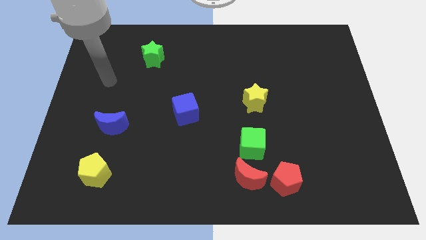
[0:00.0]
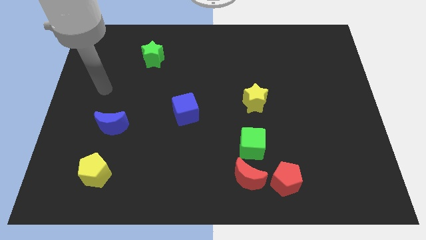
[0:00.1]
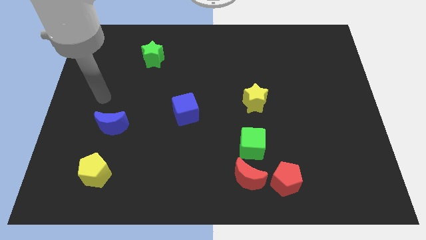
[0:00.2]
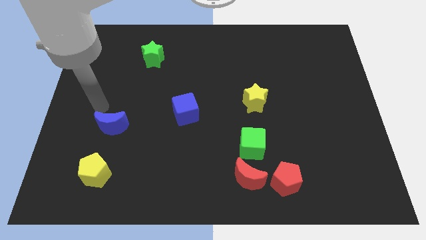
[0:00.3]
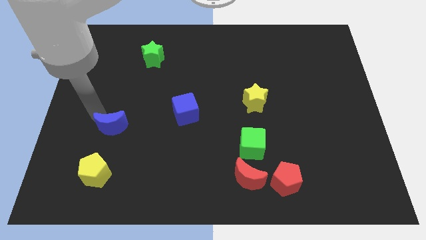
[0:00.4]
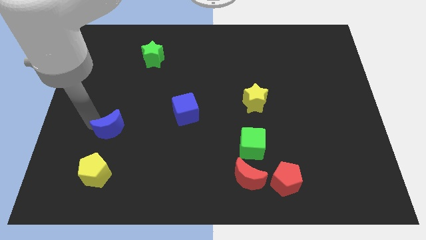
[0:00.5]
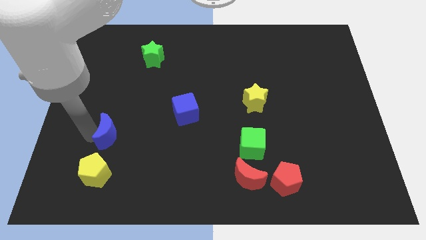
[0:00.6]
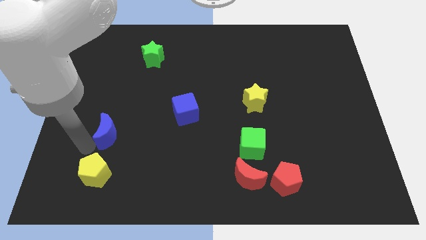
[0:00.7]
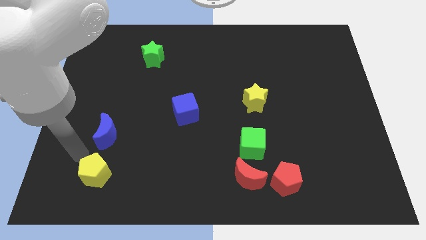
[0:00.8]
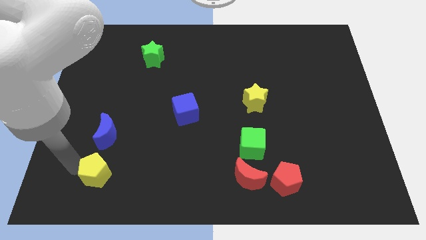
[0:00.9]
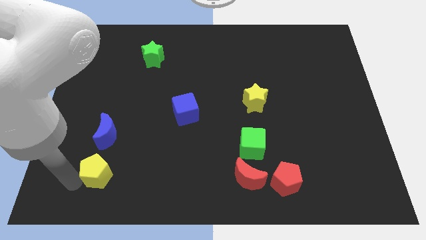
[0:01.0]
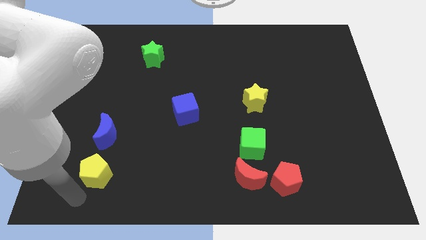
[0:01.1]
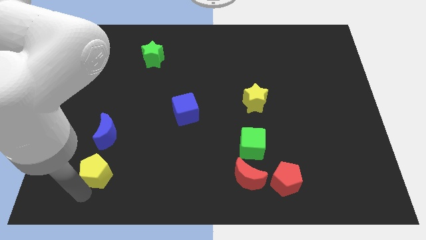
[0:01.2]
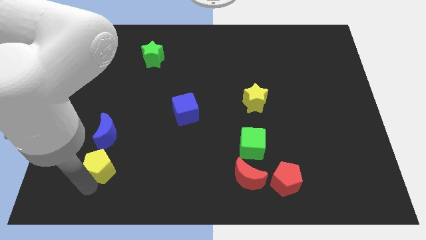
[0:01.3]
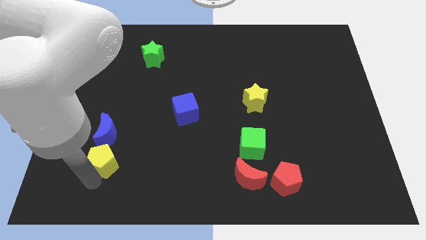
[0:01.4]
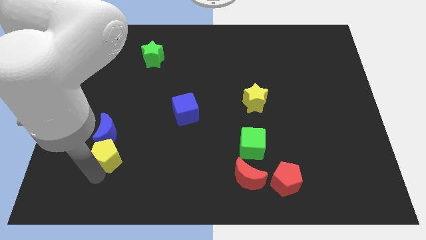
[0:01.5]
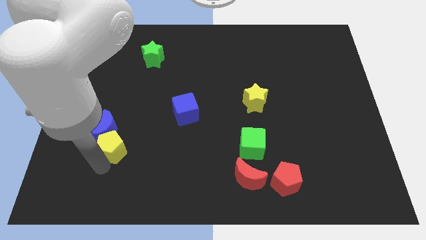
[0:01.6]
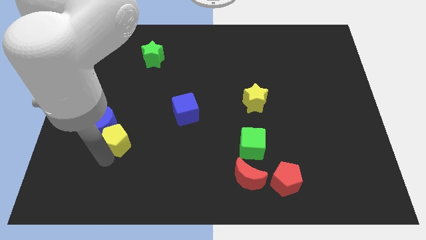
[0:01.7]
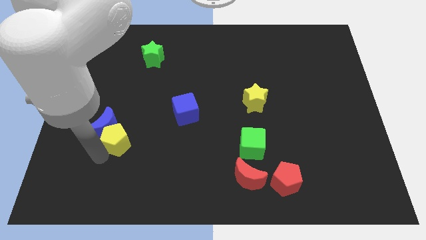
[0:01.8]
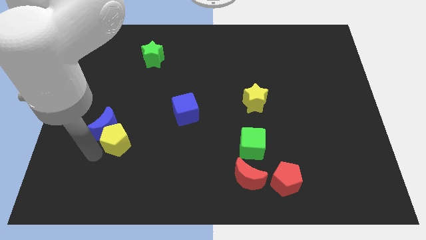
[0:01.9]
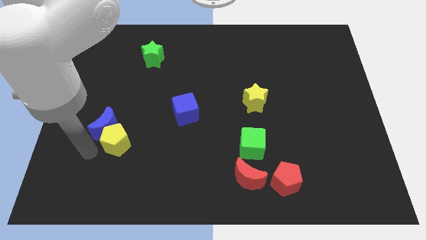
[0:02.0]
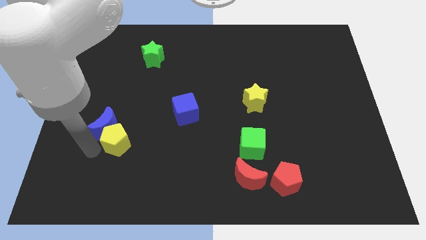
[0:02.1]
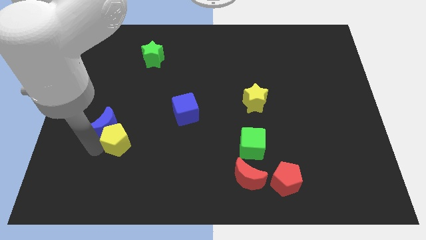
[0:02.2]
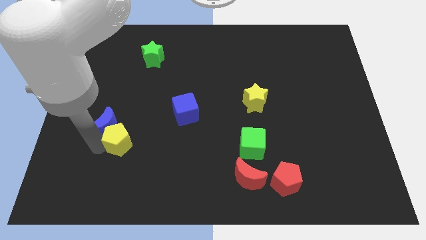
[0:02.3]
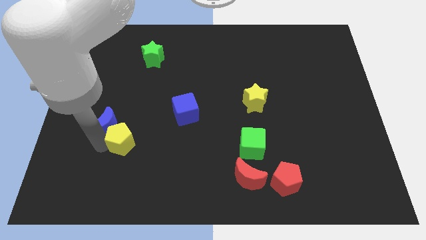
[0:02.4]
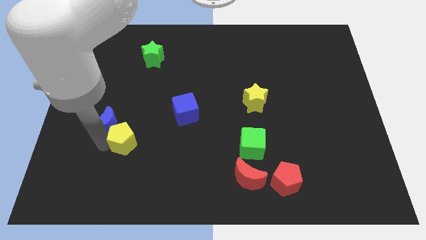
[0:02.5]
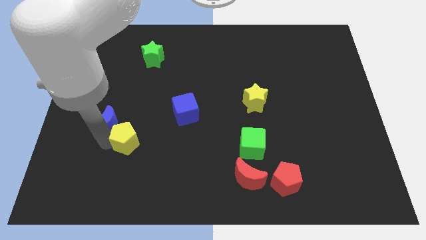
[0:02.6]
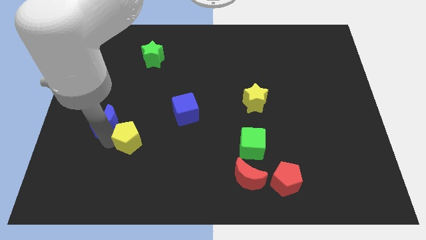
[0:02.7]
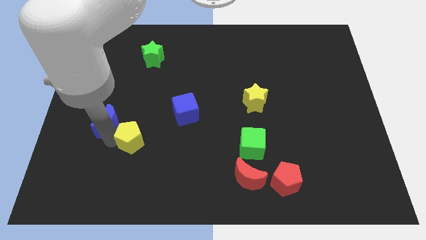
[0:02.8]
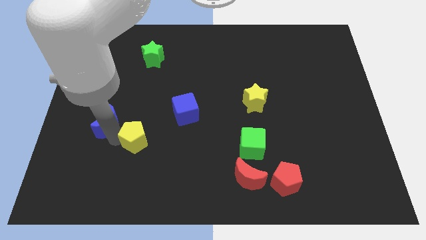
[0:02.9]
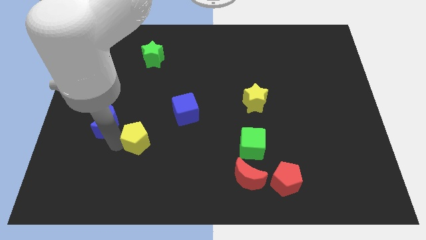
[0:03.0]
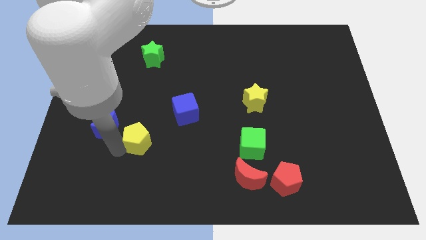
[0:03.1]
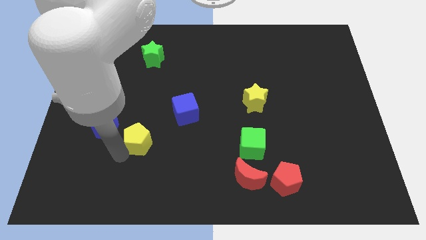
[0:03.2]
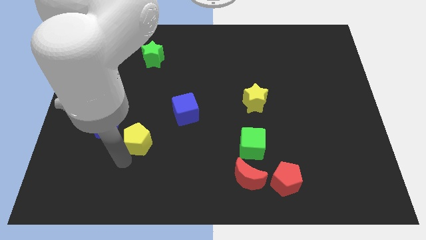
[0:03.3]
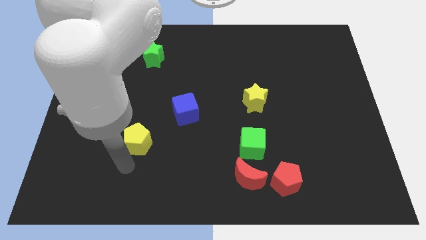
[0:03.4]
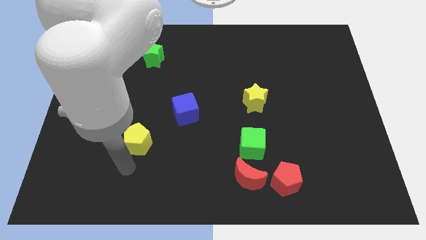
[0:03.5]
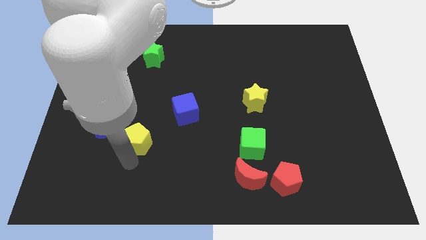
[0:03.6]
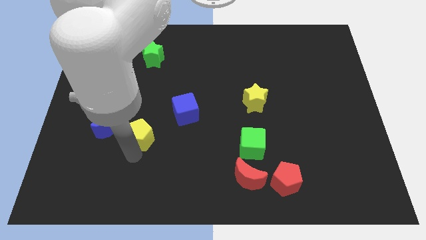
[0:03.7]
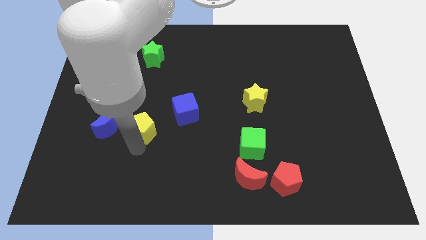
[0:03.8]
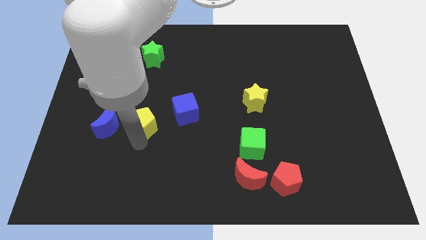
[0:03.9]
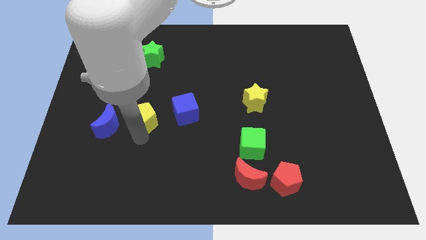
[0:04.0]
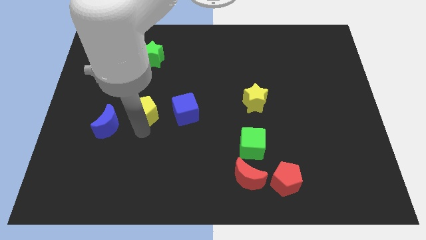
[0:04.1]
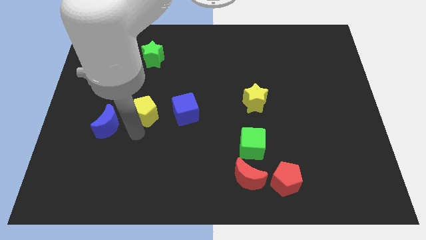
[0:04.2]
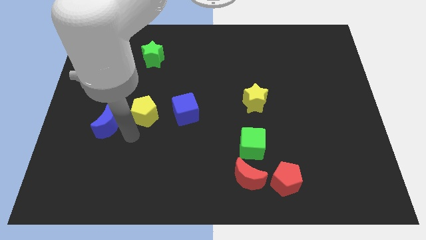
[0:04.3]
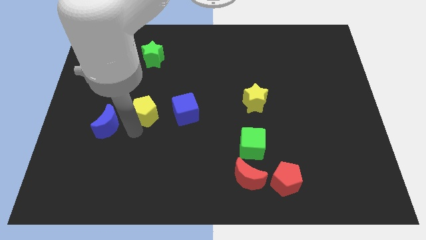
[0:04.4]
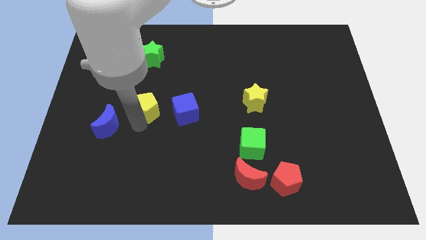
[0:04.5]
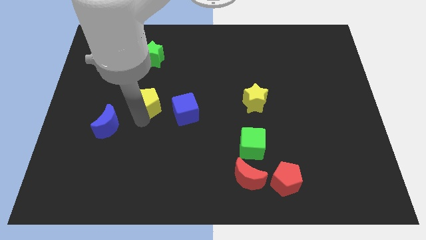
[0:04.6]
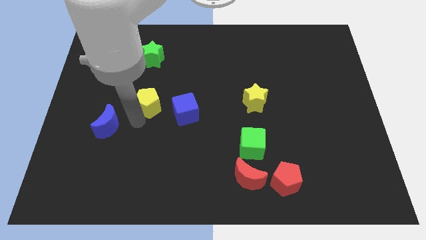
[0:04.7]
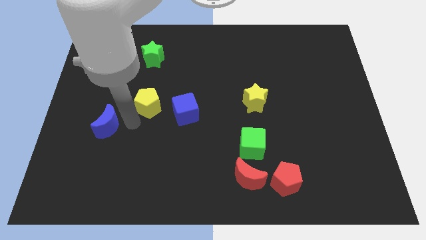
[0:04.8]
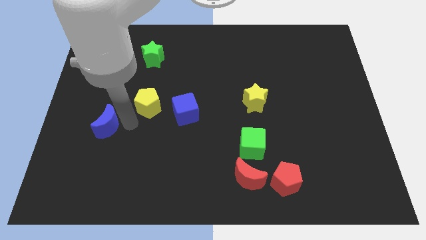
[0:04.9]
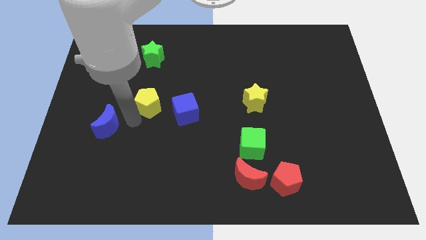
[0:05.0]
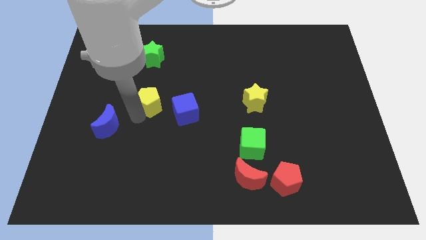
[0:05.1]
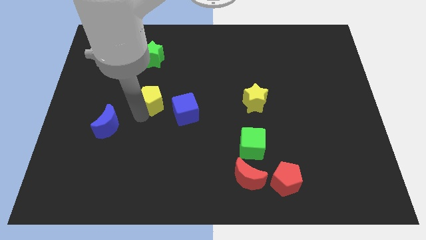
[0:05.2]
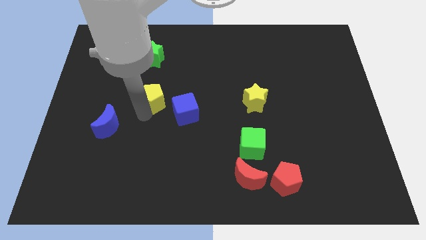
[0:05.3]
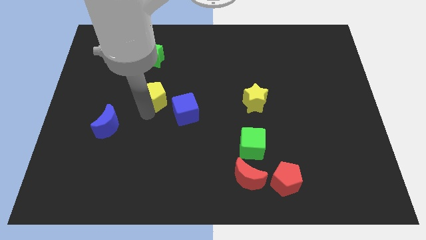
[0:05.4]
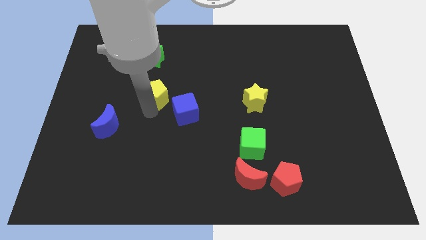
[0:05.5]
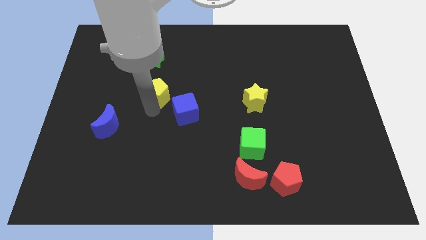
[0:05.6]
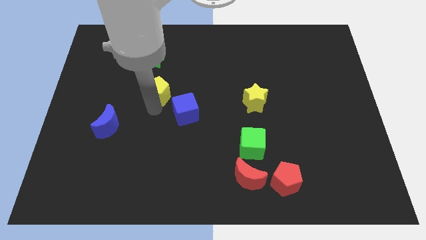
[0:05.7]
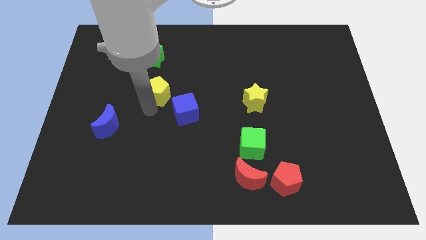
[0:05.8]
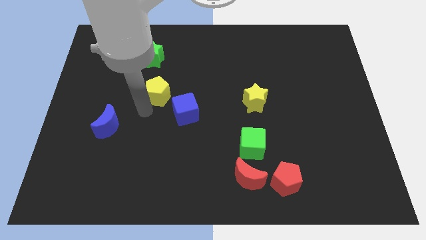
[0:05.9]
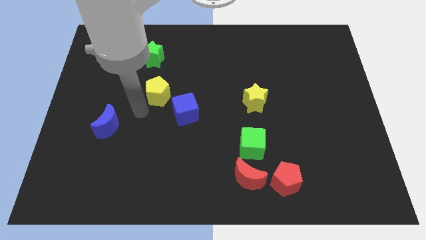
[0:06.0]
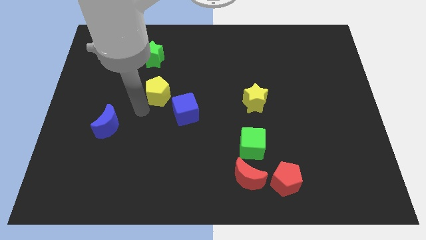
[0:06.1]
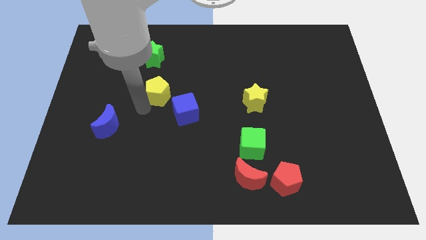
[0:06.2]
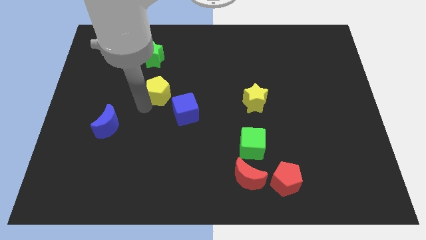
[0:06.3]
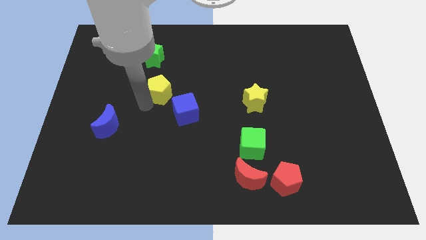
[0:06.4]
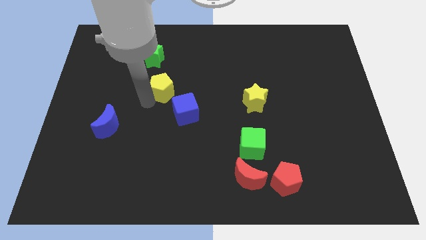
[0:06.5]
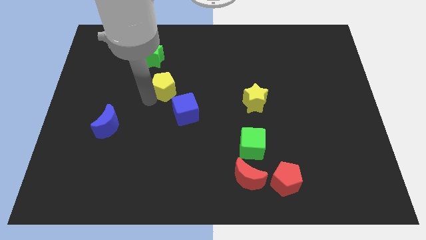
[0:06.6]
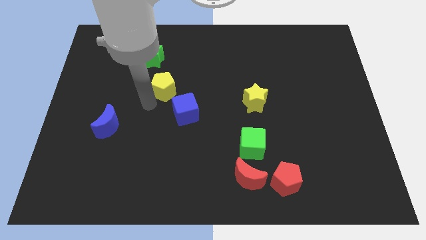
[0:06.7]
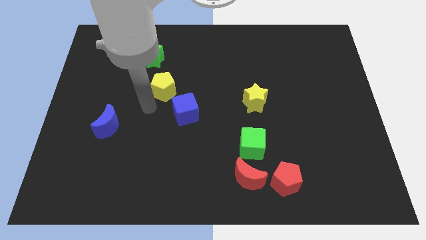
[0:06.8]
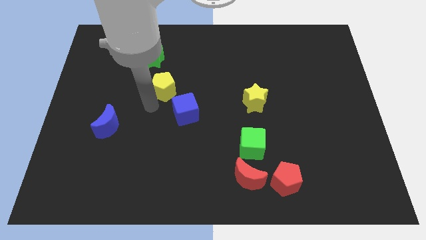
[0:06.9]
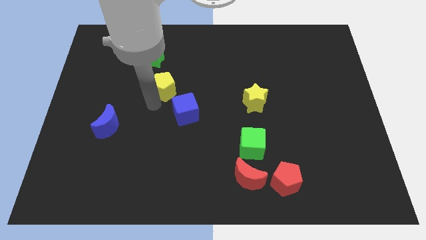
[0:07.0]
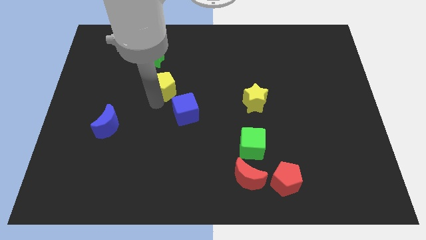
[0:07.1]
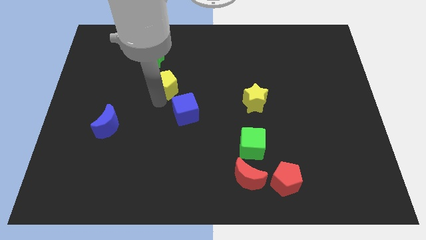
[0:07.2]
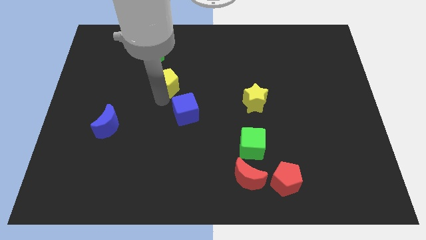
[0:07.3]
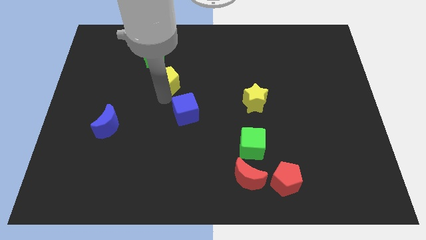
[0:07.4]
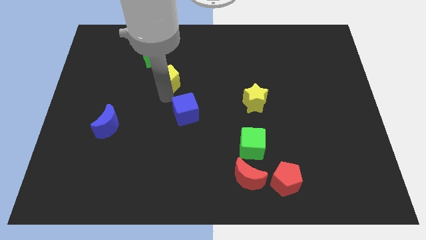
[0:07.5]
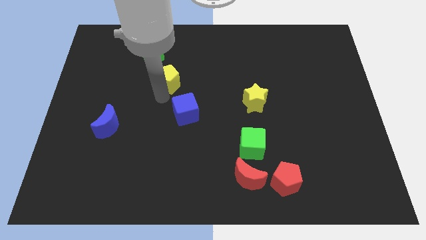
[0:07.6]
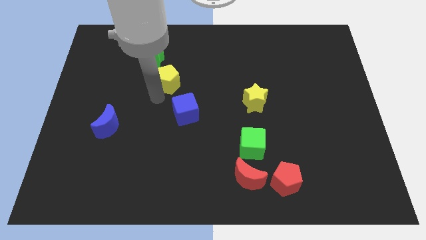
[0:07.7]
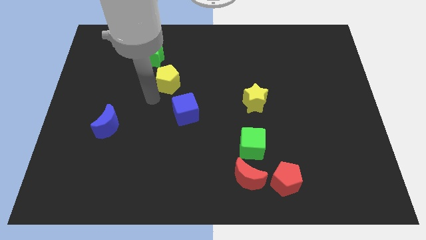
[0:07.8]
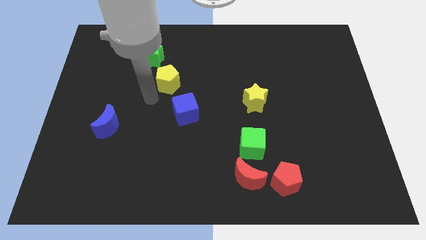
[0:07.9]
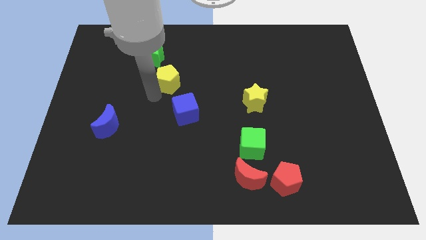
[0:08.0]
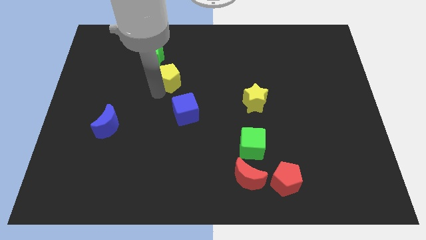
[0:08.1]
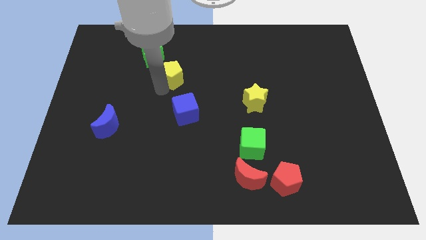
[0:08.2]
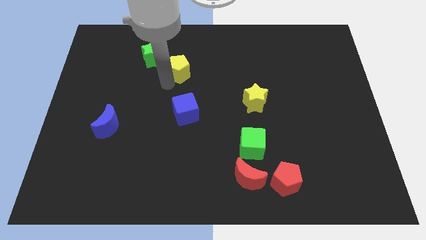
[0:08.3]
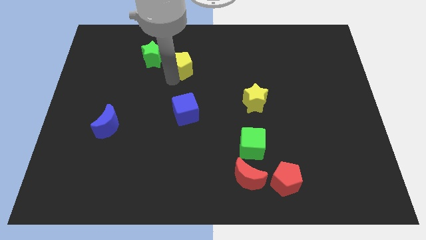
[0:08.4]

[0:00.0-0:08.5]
push the yellow pentagon just right of the green star
